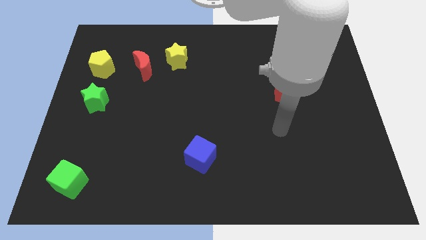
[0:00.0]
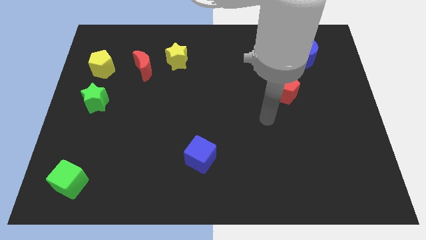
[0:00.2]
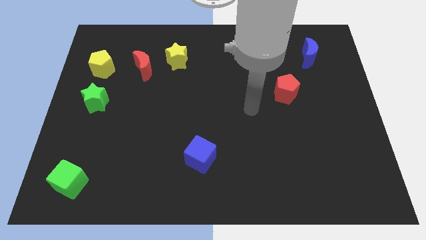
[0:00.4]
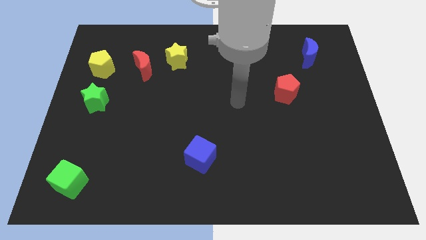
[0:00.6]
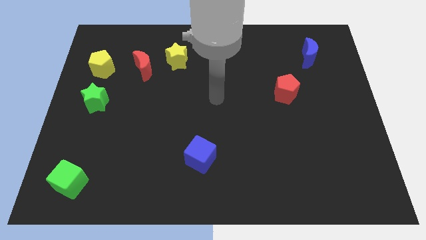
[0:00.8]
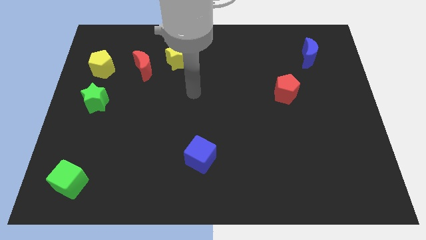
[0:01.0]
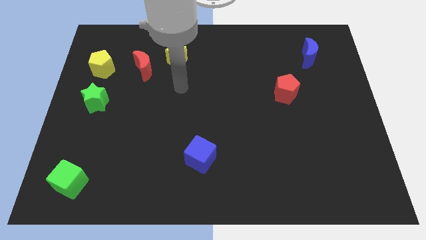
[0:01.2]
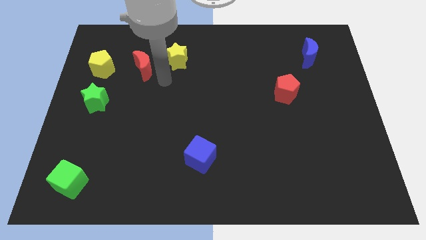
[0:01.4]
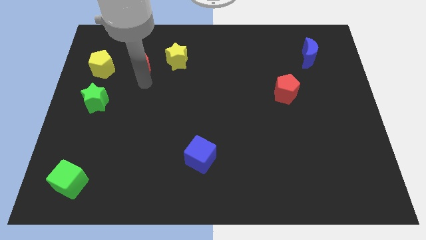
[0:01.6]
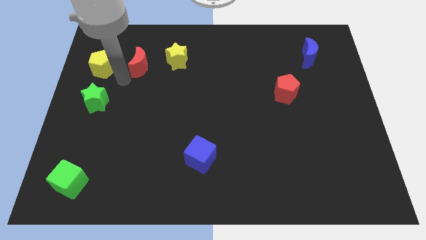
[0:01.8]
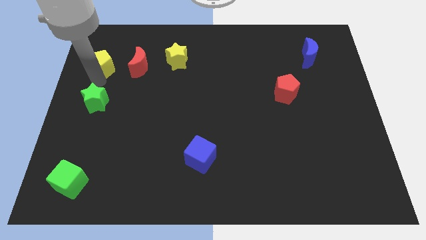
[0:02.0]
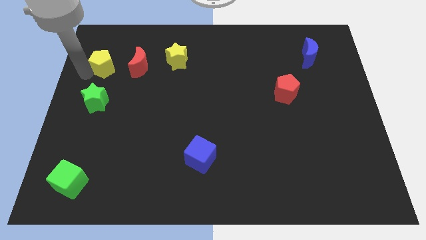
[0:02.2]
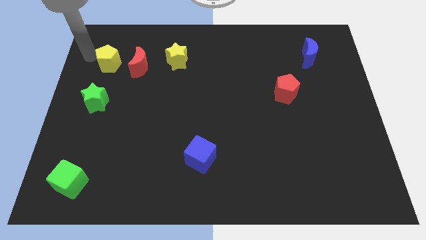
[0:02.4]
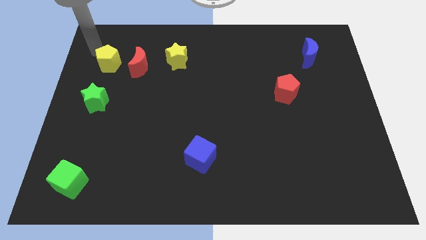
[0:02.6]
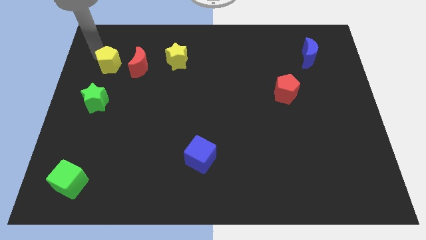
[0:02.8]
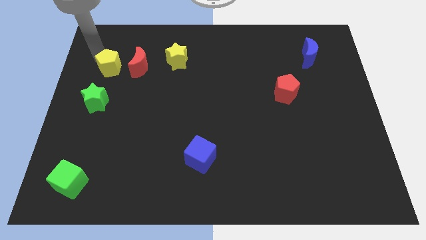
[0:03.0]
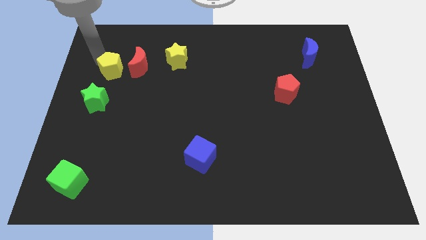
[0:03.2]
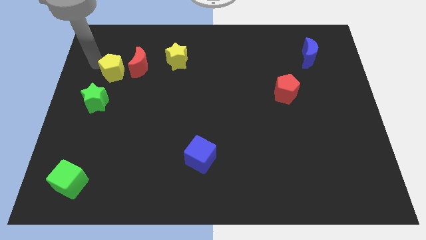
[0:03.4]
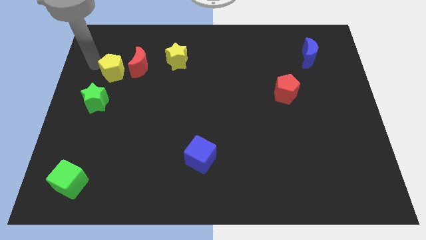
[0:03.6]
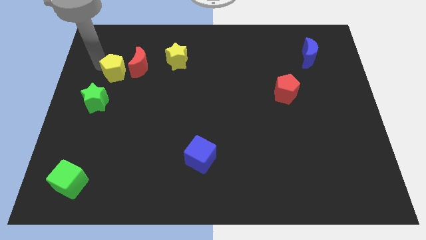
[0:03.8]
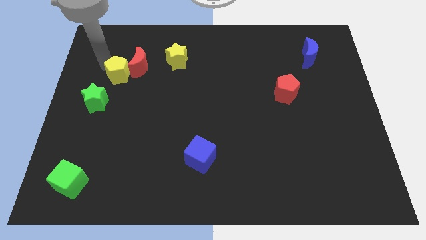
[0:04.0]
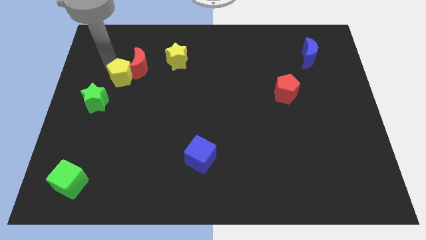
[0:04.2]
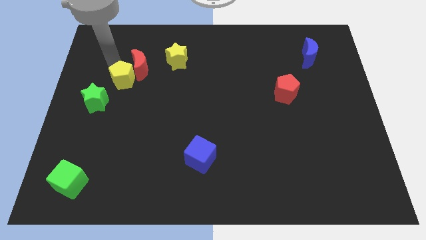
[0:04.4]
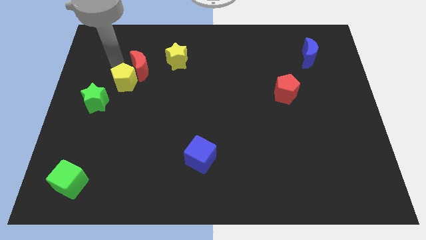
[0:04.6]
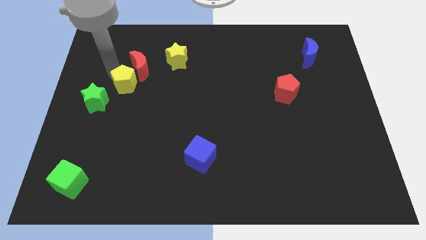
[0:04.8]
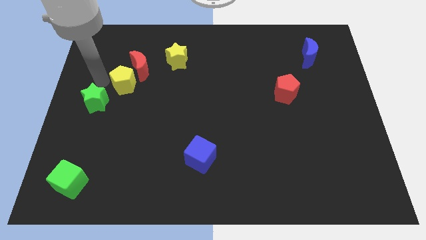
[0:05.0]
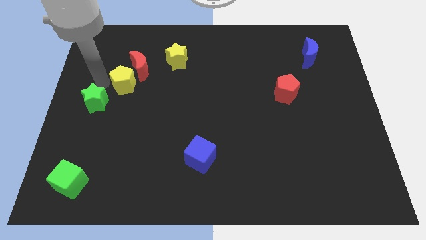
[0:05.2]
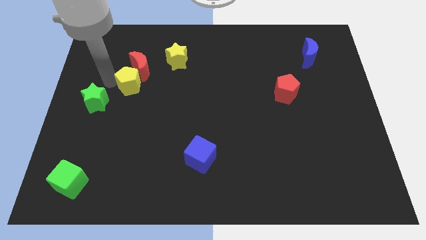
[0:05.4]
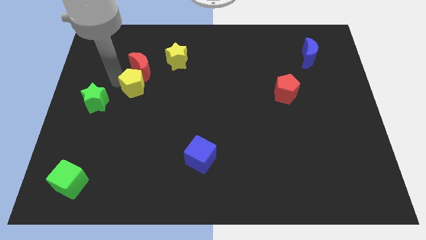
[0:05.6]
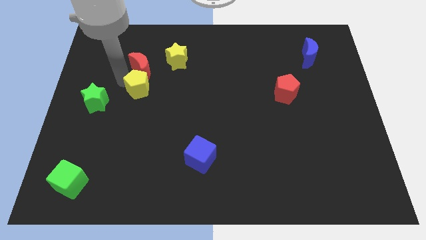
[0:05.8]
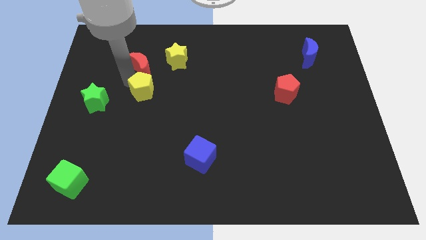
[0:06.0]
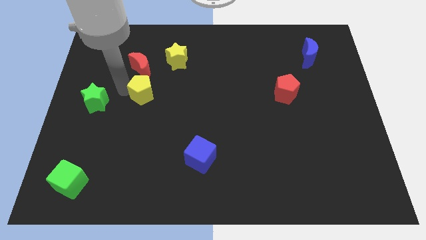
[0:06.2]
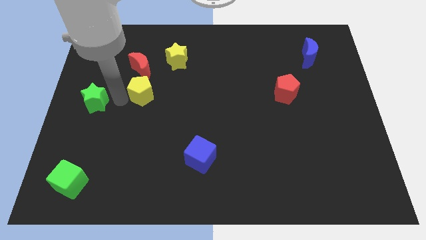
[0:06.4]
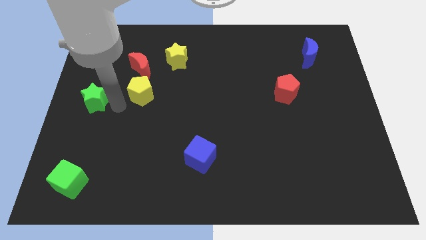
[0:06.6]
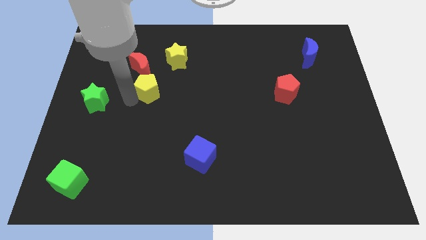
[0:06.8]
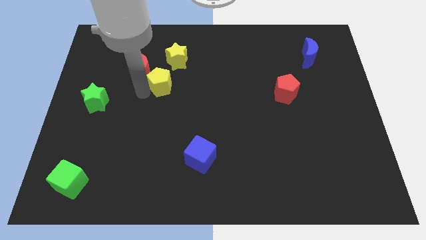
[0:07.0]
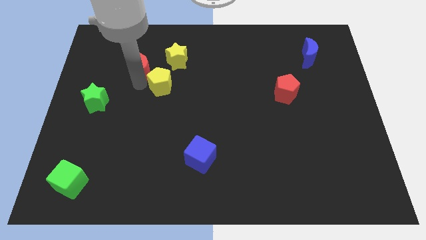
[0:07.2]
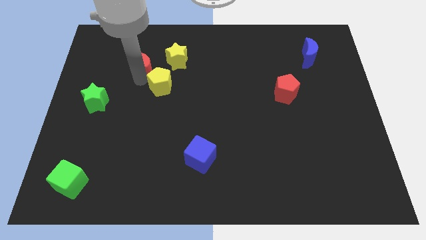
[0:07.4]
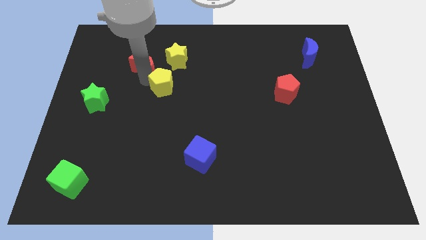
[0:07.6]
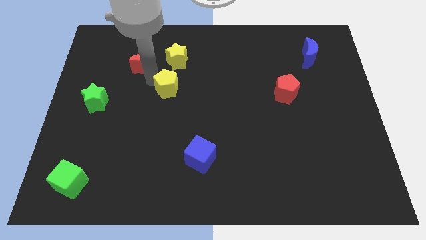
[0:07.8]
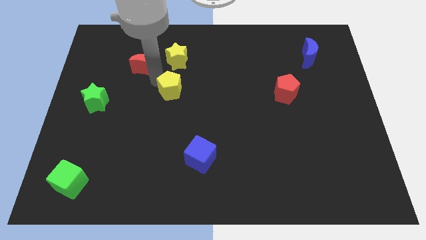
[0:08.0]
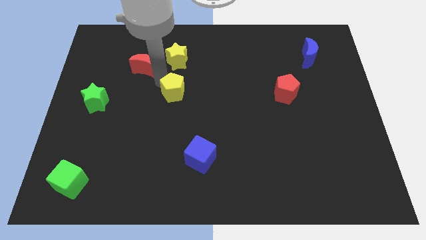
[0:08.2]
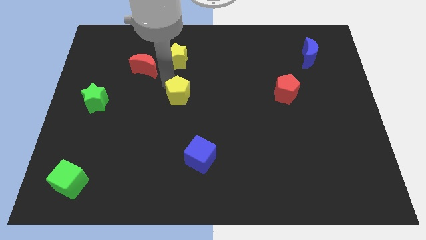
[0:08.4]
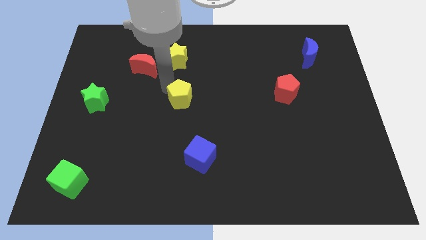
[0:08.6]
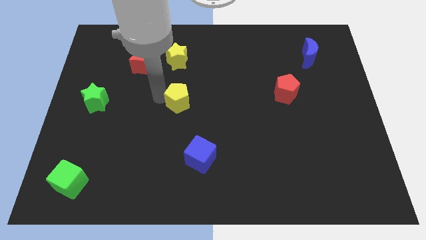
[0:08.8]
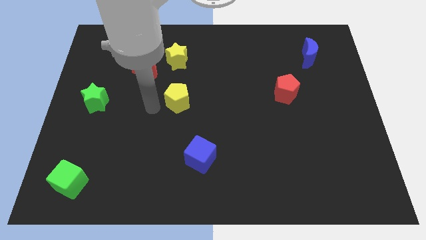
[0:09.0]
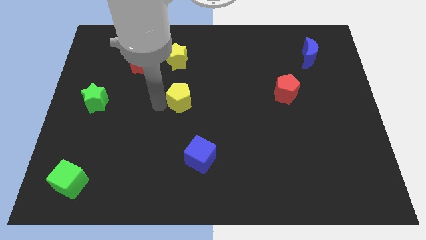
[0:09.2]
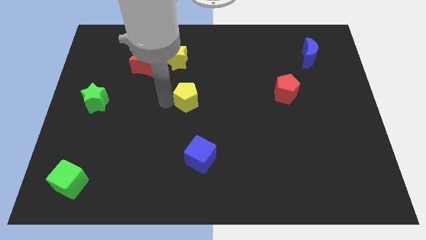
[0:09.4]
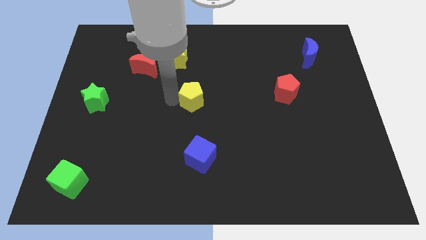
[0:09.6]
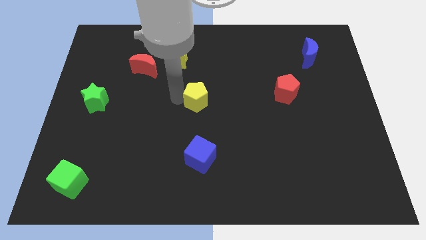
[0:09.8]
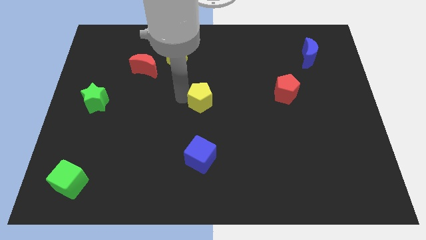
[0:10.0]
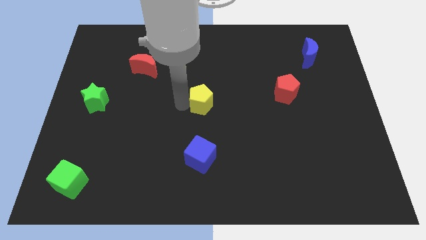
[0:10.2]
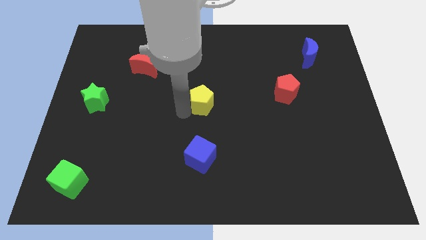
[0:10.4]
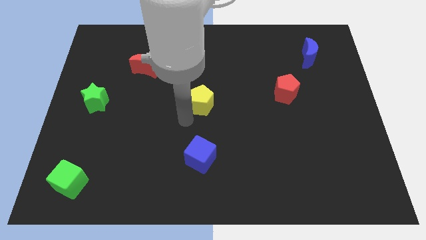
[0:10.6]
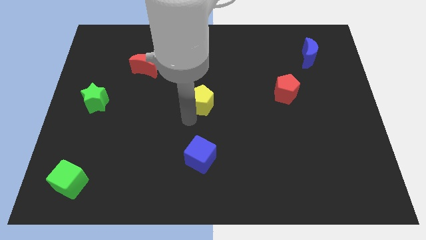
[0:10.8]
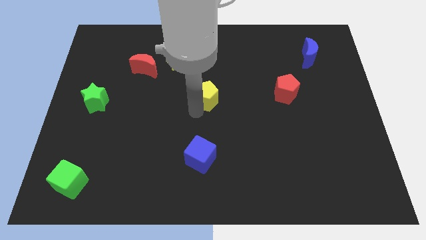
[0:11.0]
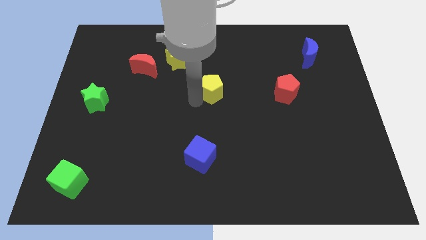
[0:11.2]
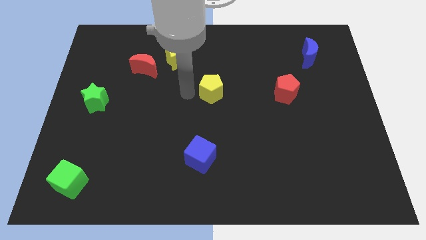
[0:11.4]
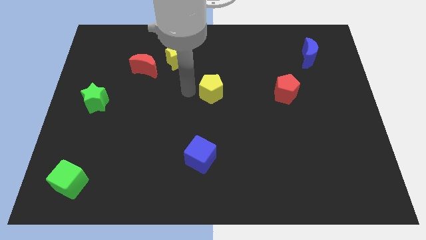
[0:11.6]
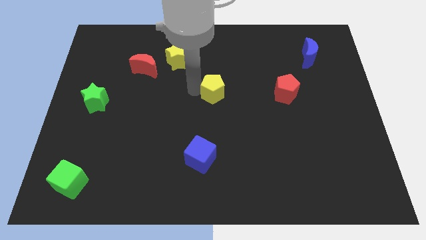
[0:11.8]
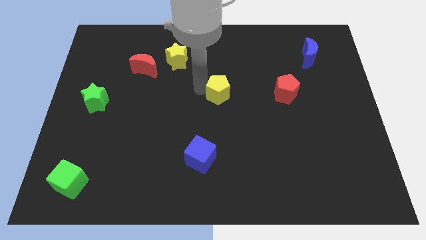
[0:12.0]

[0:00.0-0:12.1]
slide the yellow pentagon left of the red pentagon
